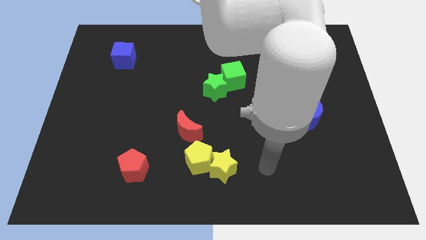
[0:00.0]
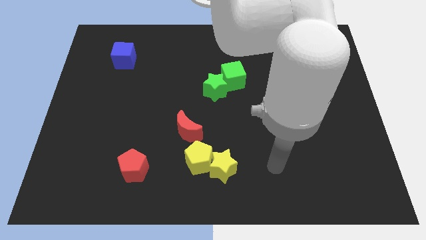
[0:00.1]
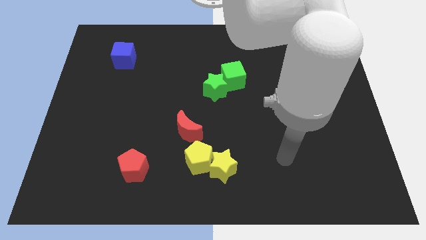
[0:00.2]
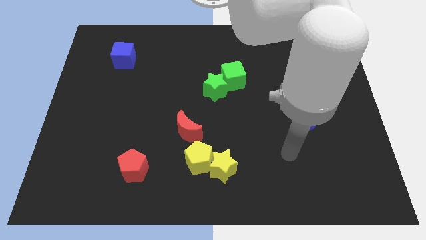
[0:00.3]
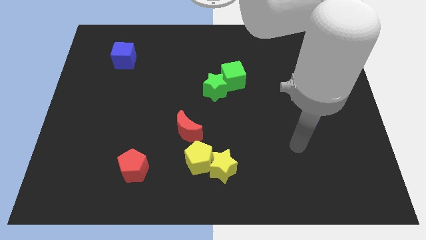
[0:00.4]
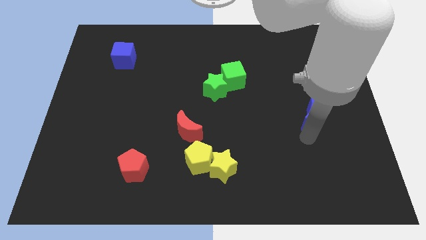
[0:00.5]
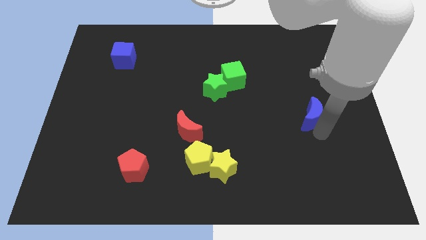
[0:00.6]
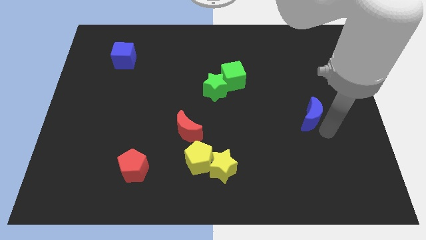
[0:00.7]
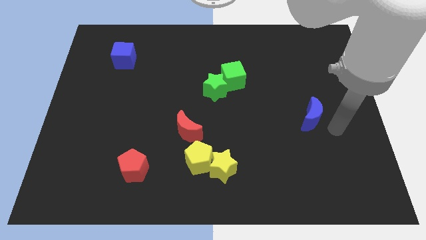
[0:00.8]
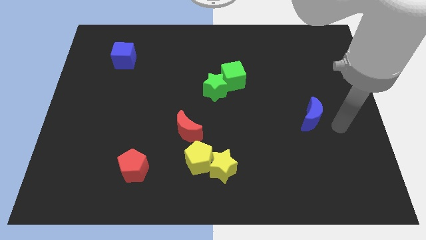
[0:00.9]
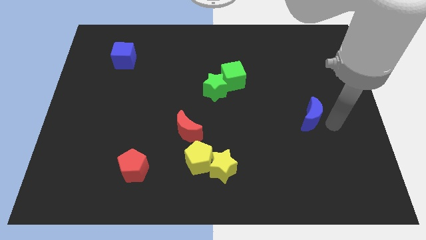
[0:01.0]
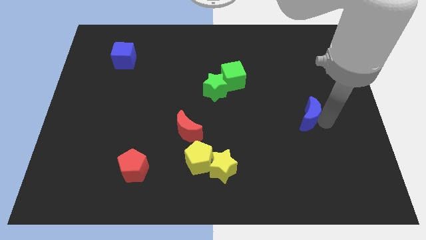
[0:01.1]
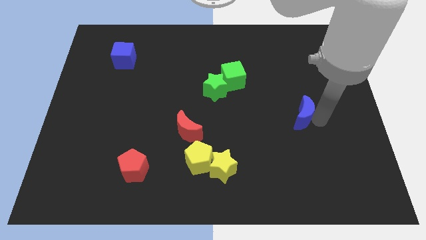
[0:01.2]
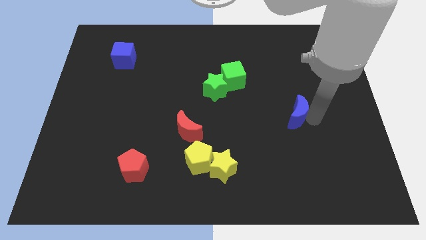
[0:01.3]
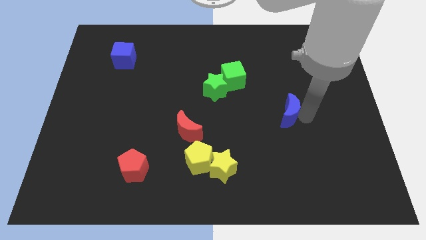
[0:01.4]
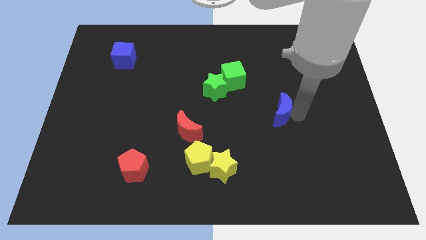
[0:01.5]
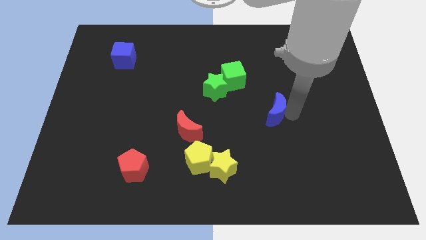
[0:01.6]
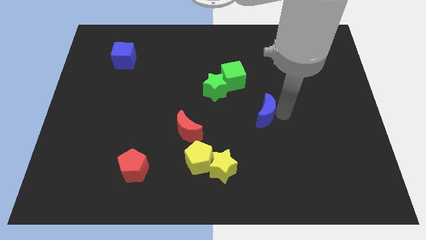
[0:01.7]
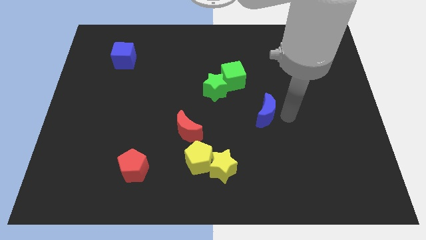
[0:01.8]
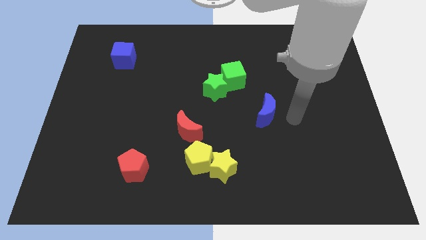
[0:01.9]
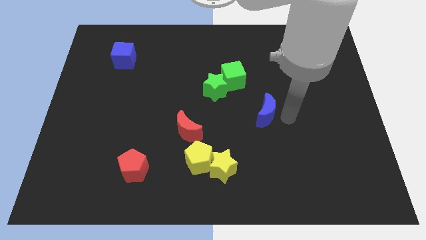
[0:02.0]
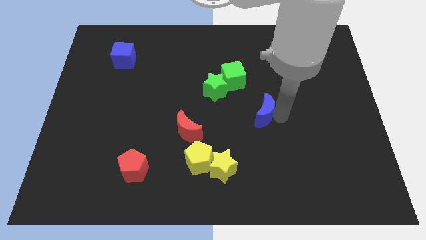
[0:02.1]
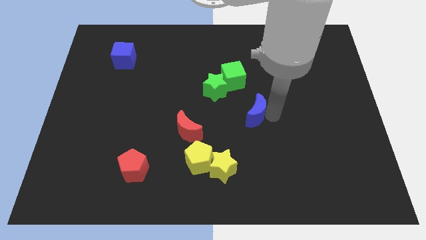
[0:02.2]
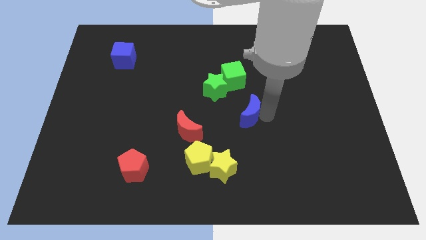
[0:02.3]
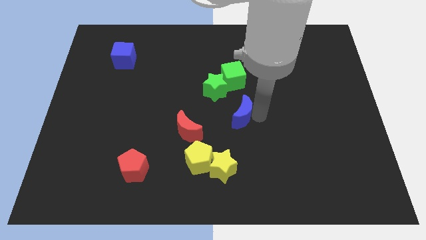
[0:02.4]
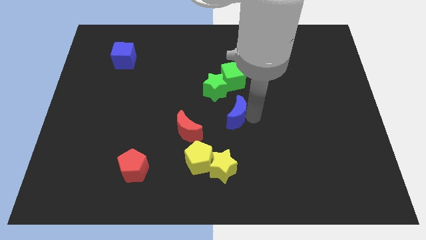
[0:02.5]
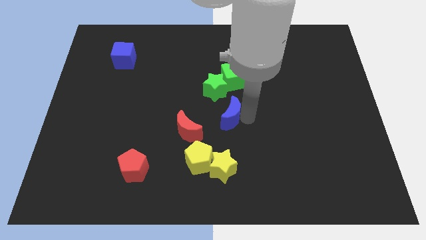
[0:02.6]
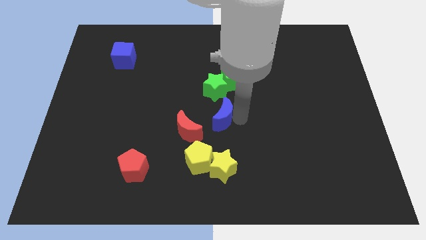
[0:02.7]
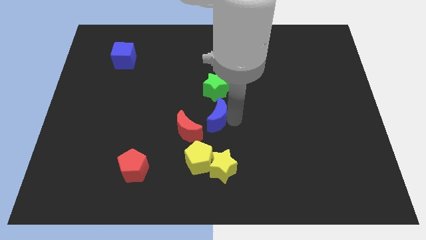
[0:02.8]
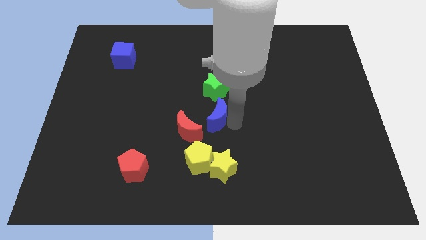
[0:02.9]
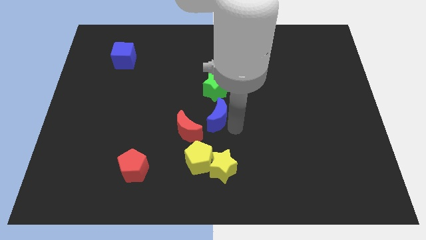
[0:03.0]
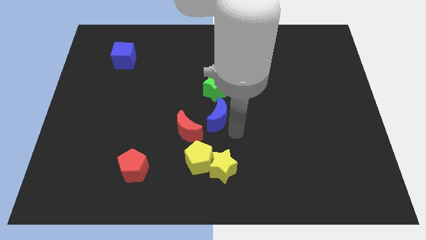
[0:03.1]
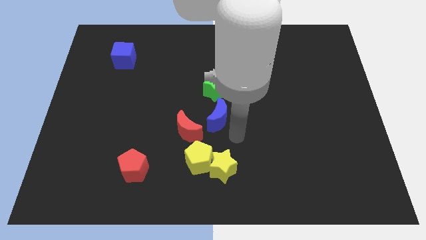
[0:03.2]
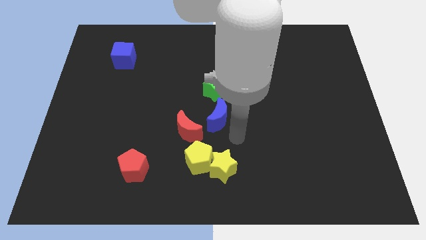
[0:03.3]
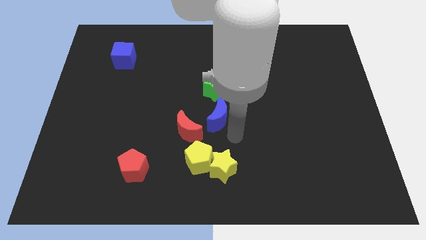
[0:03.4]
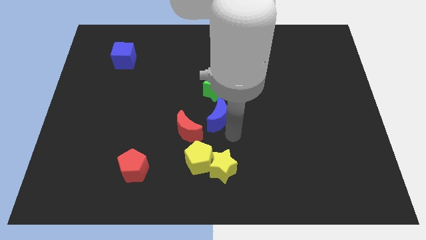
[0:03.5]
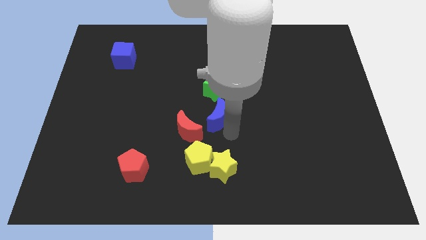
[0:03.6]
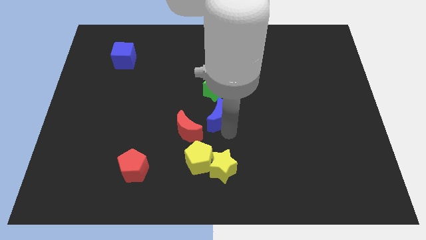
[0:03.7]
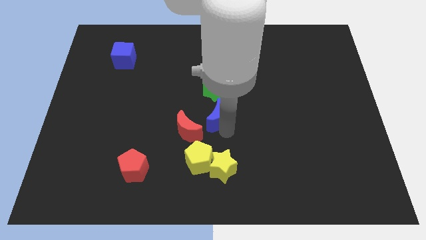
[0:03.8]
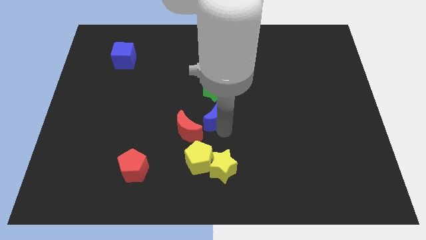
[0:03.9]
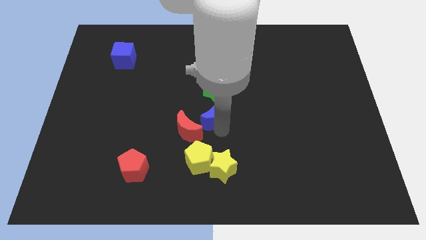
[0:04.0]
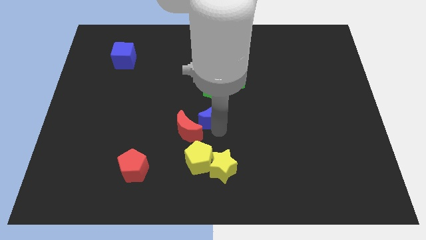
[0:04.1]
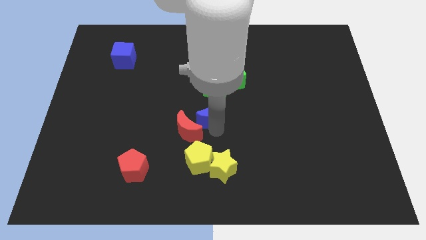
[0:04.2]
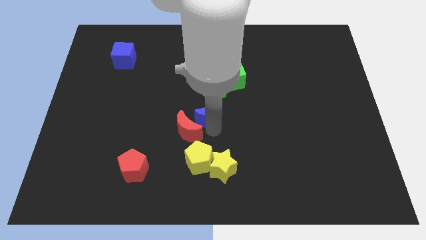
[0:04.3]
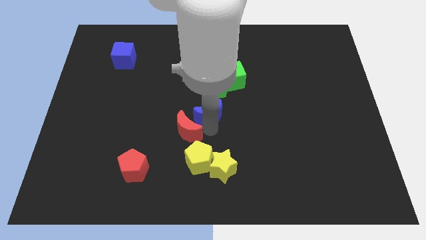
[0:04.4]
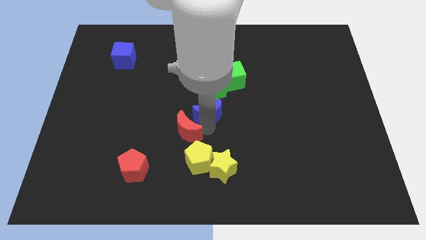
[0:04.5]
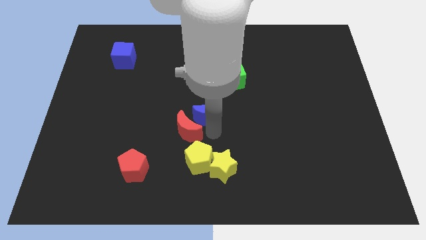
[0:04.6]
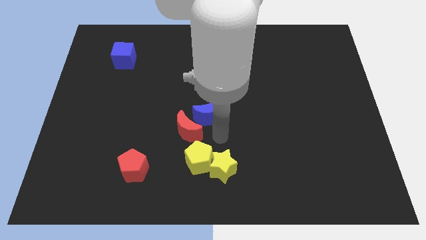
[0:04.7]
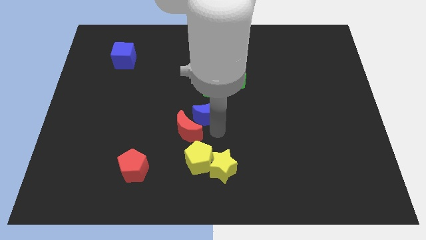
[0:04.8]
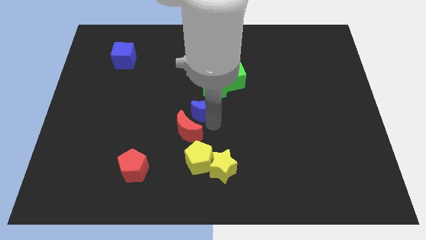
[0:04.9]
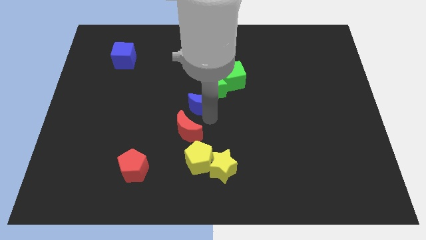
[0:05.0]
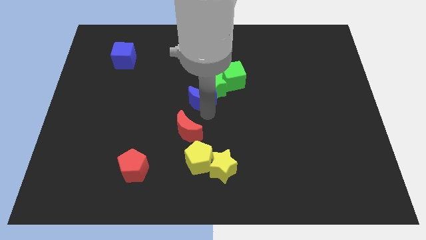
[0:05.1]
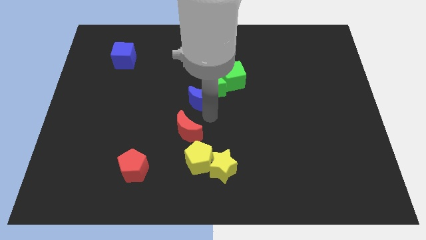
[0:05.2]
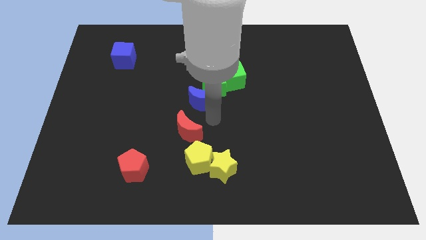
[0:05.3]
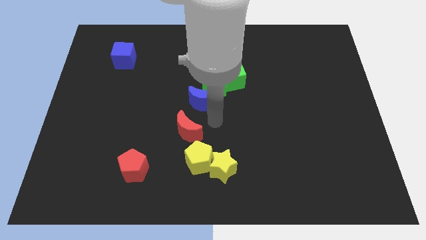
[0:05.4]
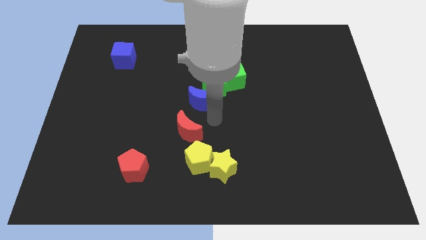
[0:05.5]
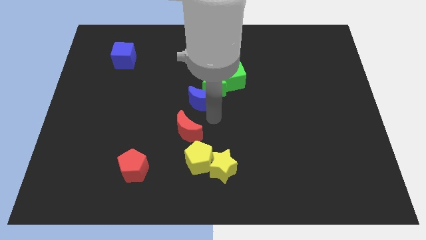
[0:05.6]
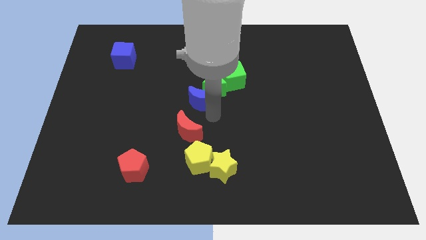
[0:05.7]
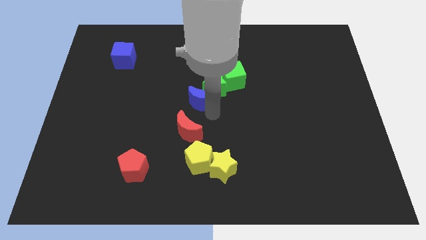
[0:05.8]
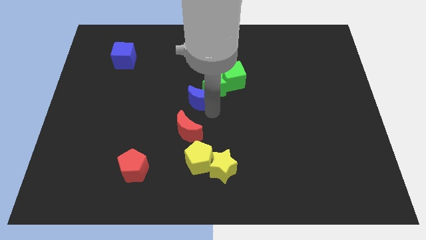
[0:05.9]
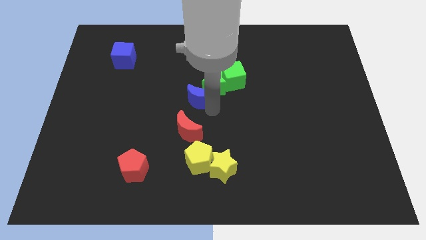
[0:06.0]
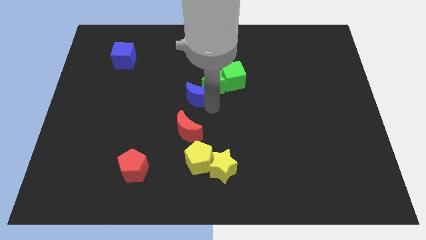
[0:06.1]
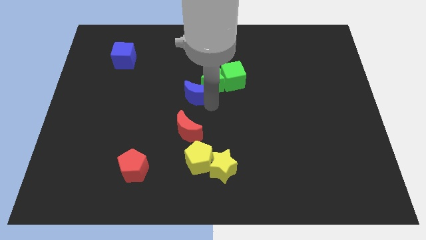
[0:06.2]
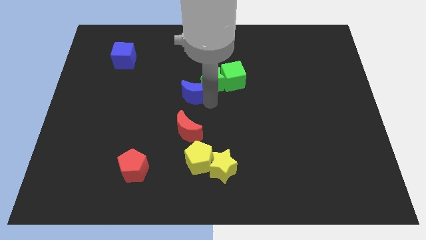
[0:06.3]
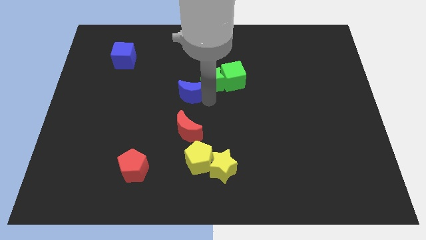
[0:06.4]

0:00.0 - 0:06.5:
slide the blue moon to the left side of the green cube

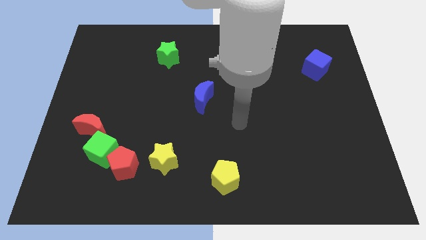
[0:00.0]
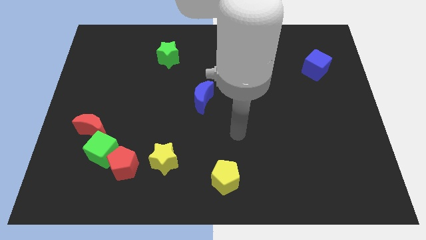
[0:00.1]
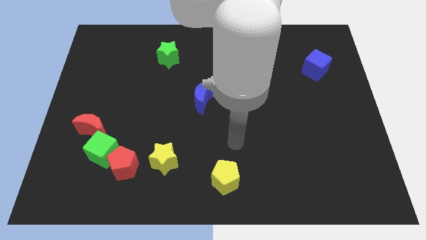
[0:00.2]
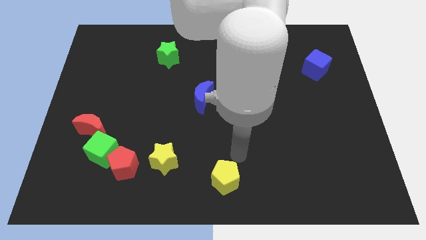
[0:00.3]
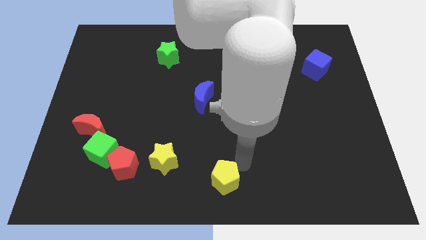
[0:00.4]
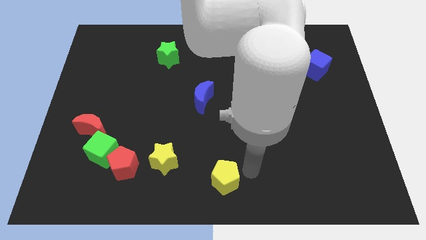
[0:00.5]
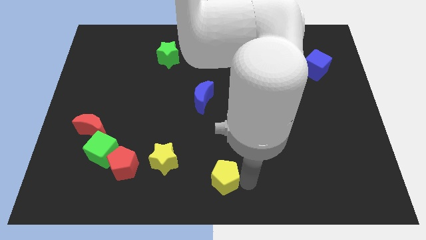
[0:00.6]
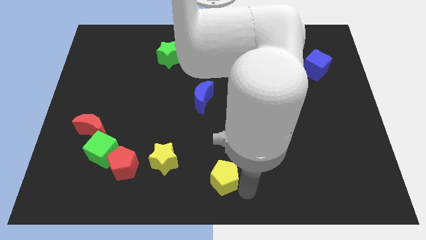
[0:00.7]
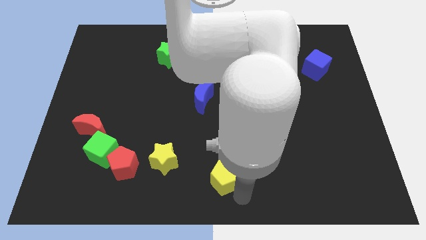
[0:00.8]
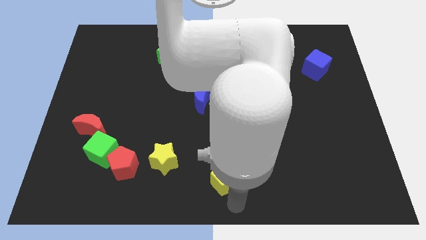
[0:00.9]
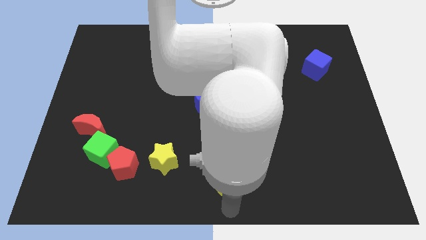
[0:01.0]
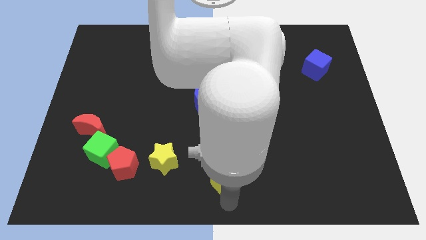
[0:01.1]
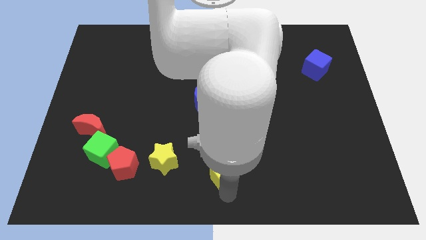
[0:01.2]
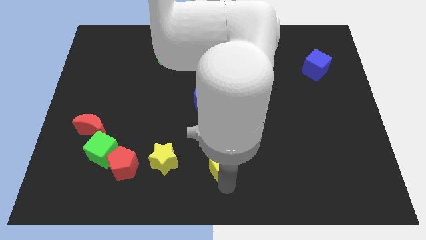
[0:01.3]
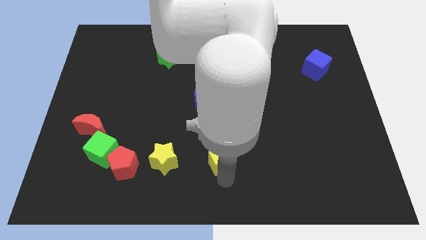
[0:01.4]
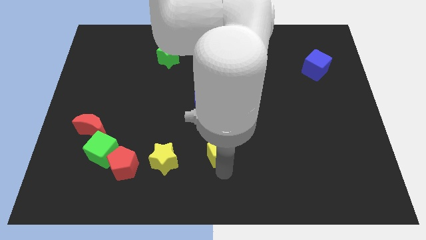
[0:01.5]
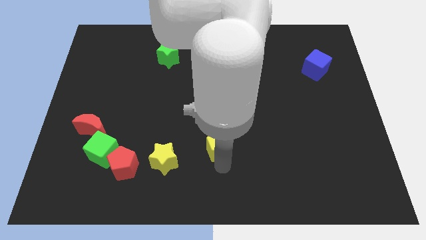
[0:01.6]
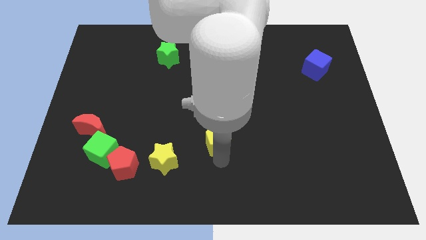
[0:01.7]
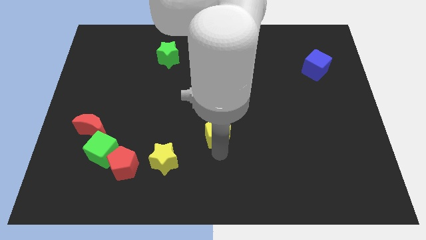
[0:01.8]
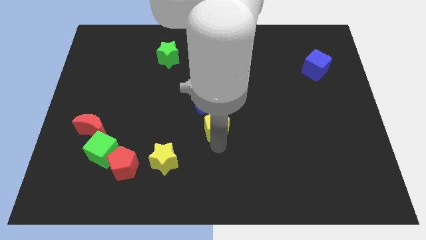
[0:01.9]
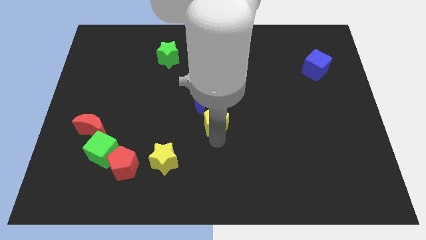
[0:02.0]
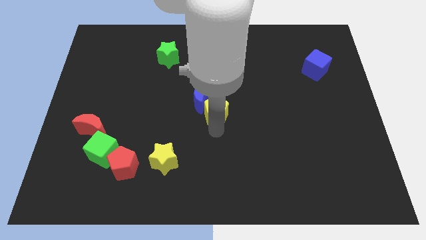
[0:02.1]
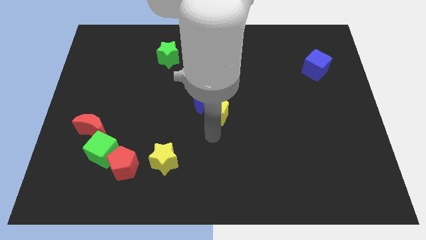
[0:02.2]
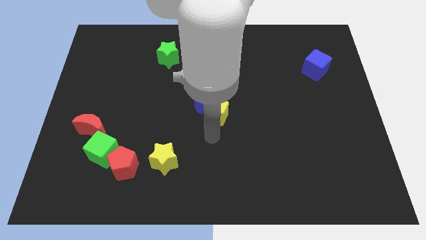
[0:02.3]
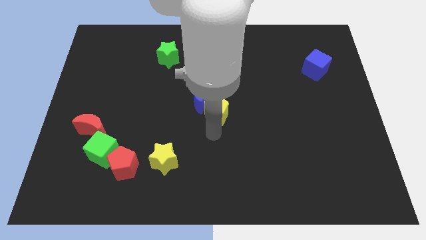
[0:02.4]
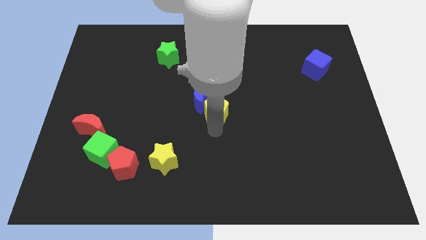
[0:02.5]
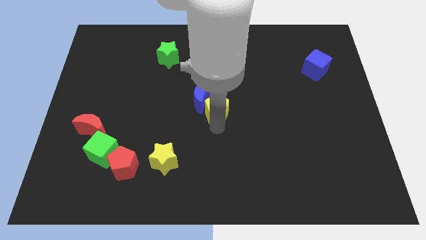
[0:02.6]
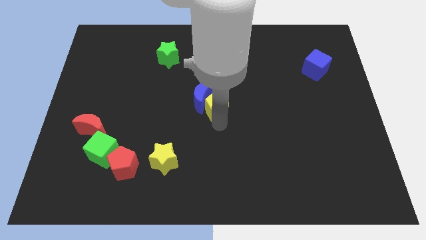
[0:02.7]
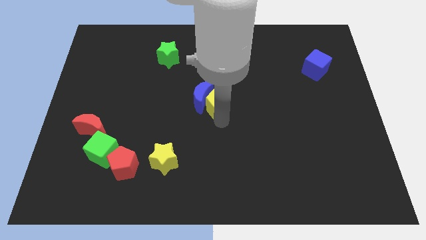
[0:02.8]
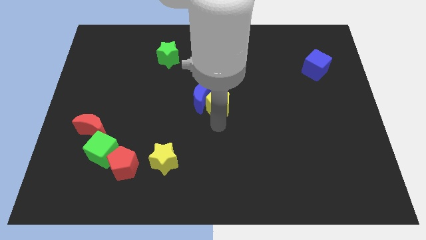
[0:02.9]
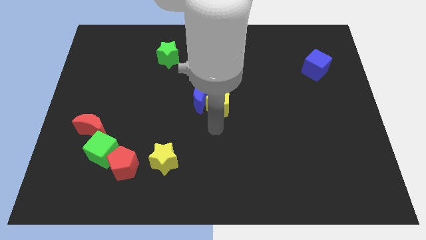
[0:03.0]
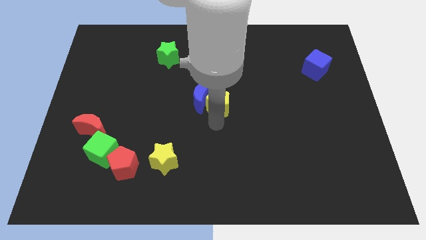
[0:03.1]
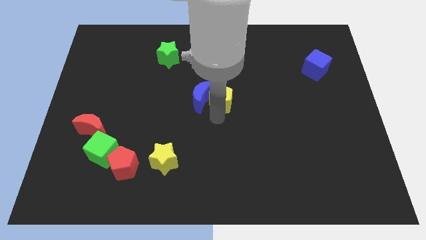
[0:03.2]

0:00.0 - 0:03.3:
move the yellow pentagon diagonally up and to the right of the blue moon
